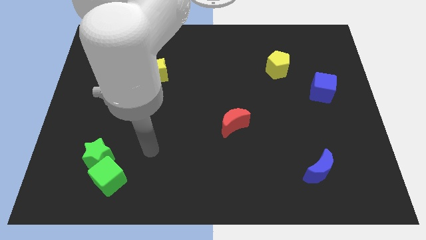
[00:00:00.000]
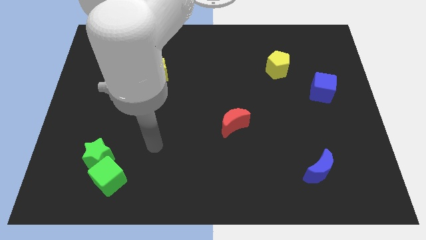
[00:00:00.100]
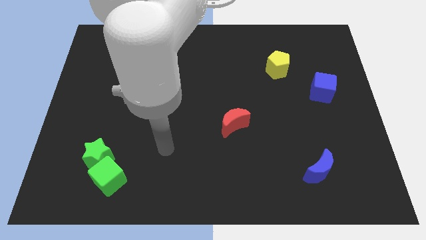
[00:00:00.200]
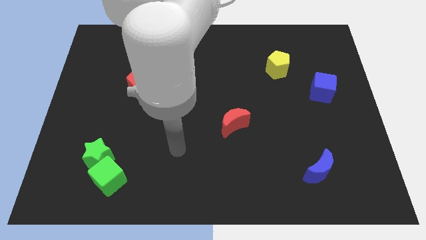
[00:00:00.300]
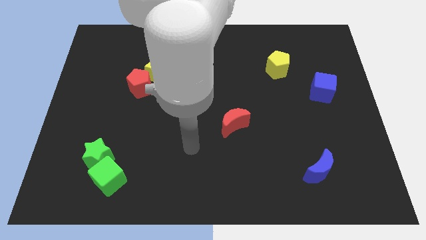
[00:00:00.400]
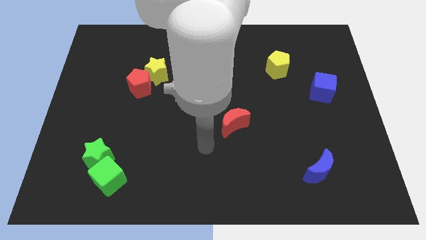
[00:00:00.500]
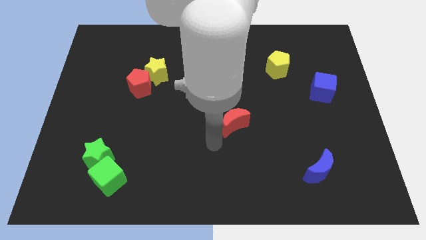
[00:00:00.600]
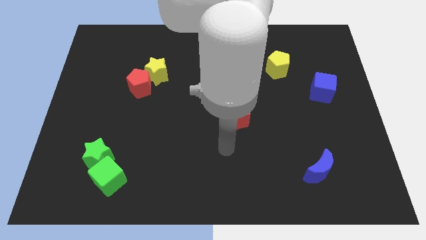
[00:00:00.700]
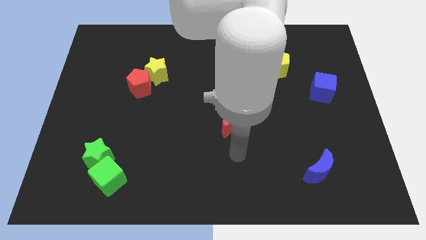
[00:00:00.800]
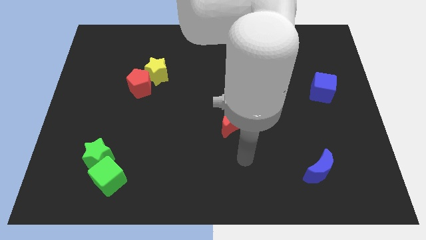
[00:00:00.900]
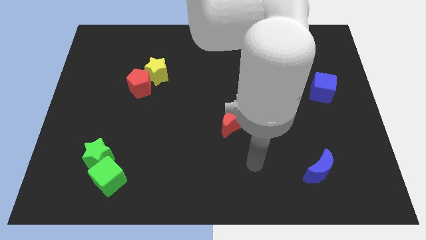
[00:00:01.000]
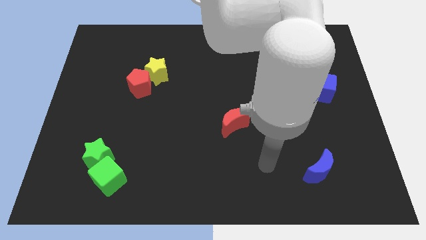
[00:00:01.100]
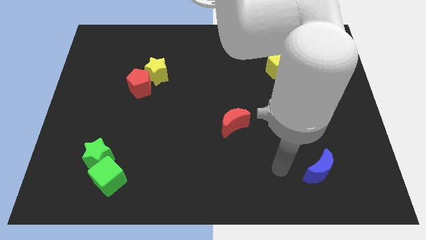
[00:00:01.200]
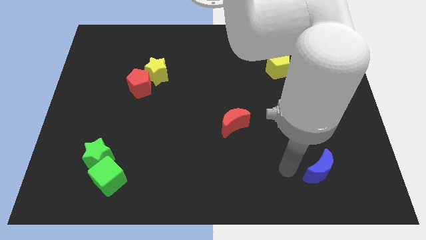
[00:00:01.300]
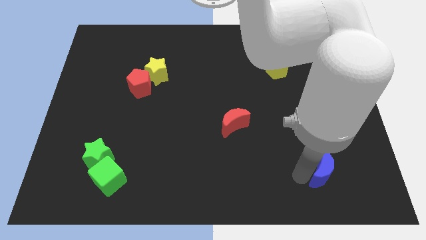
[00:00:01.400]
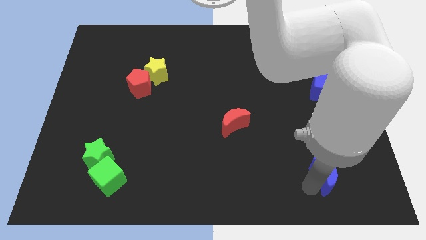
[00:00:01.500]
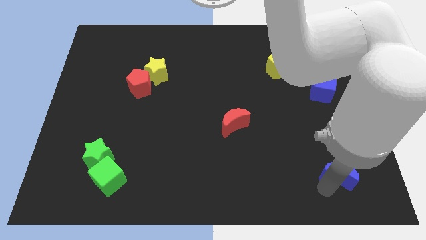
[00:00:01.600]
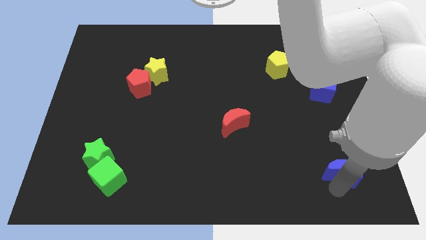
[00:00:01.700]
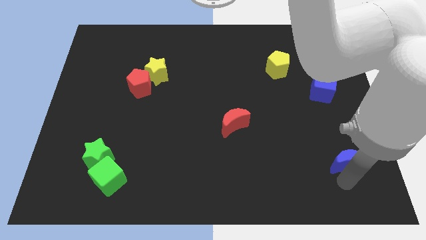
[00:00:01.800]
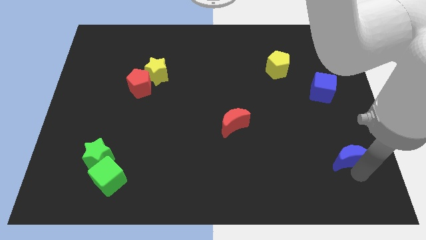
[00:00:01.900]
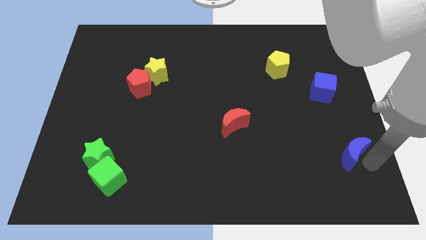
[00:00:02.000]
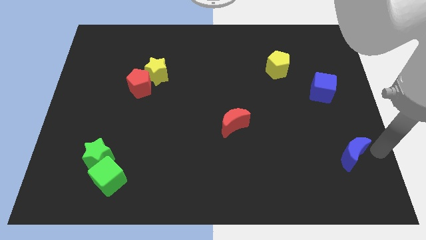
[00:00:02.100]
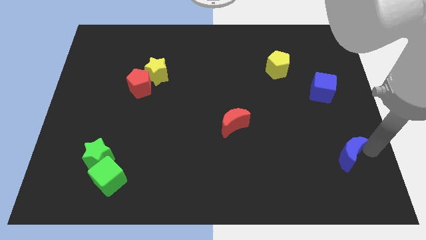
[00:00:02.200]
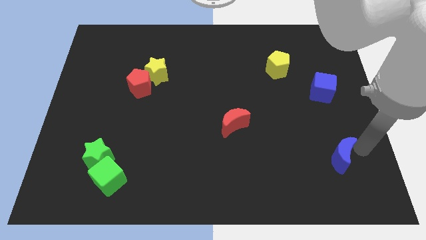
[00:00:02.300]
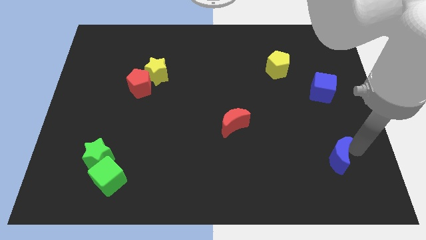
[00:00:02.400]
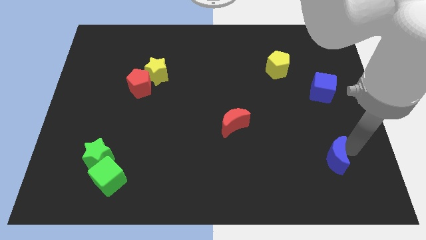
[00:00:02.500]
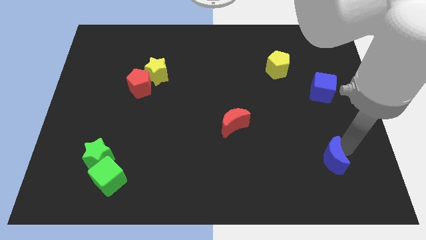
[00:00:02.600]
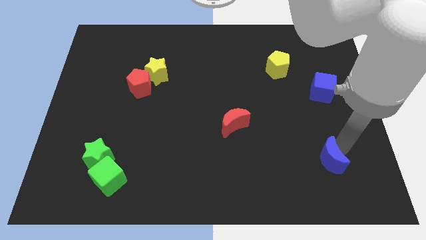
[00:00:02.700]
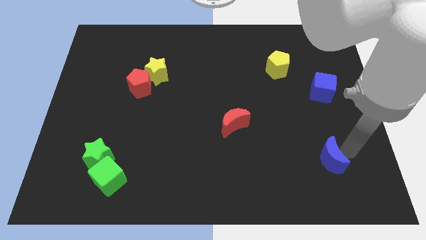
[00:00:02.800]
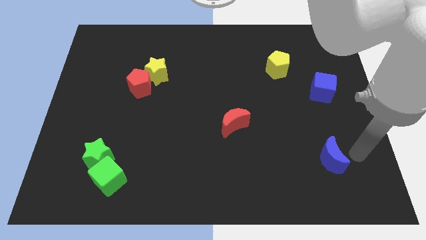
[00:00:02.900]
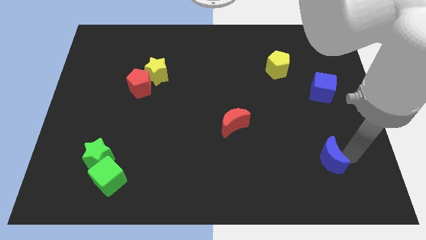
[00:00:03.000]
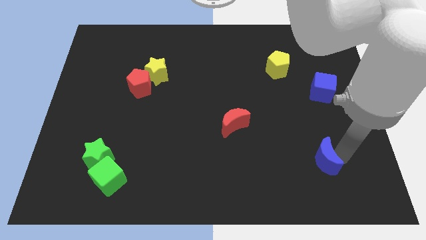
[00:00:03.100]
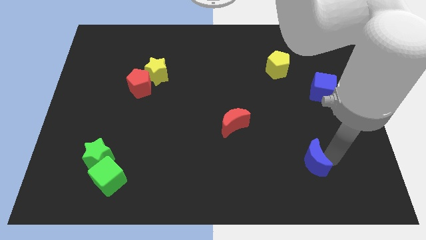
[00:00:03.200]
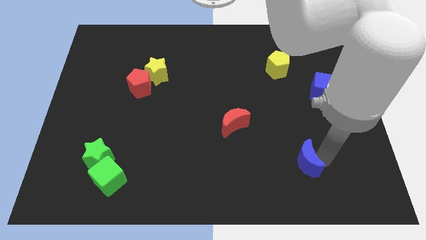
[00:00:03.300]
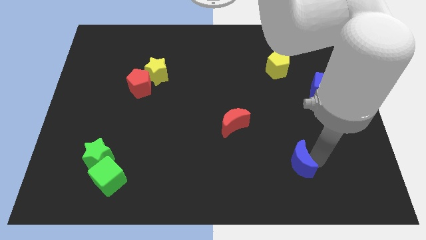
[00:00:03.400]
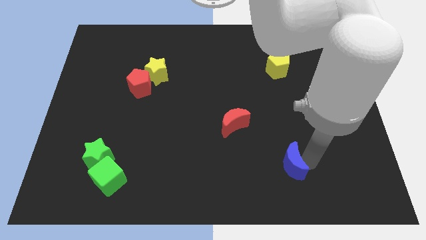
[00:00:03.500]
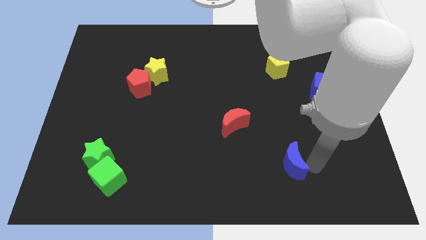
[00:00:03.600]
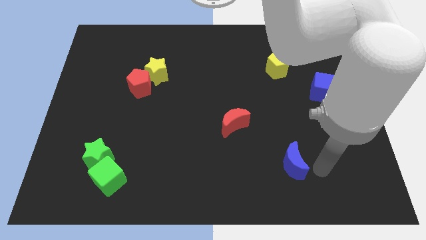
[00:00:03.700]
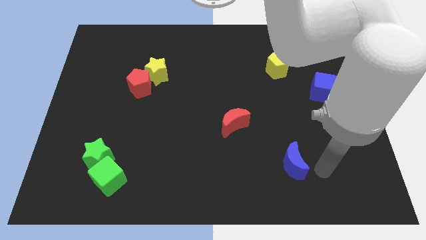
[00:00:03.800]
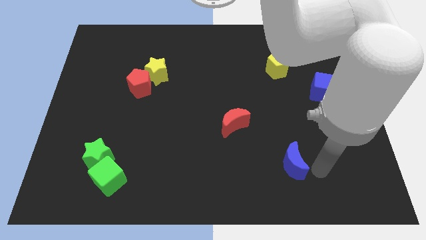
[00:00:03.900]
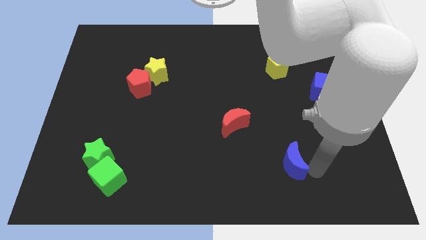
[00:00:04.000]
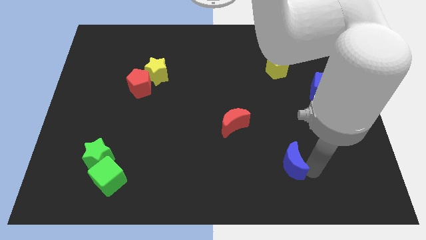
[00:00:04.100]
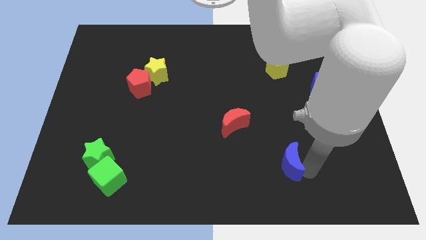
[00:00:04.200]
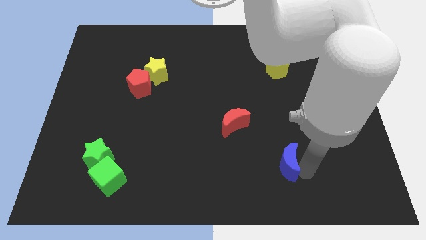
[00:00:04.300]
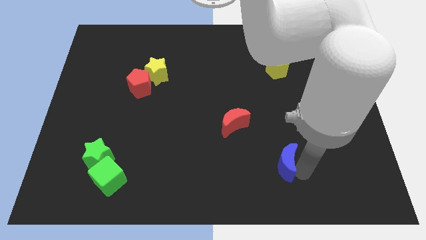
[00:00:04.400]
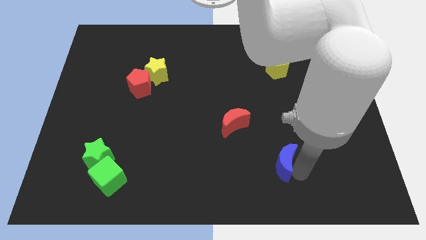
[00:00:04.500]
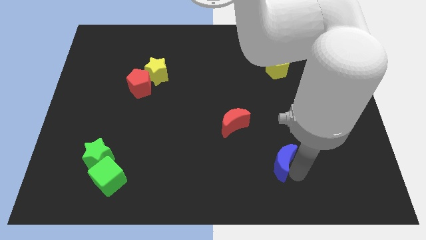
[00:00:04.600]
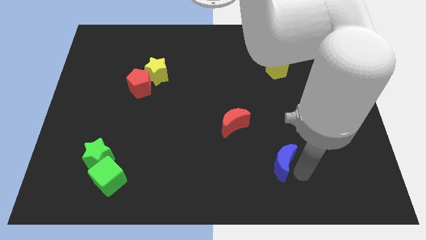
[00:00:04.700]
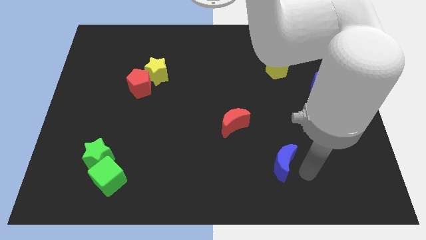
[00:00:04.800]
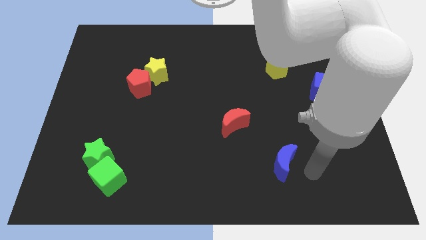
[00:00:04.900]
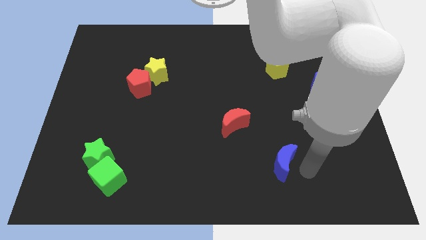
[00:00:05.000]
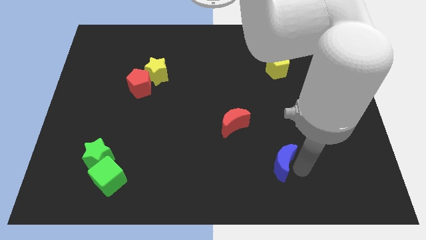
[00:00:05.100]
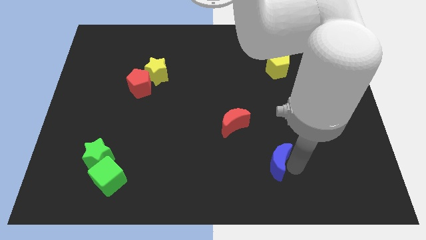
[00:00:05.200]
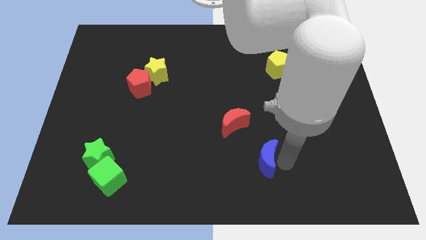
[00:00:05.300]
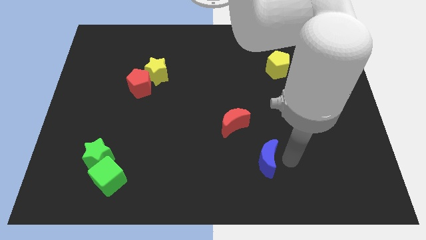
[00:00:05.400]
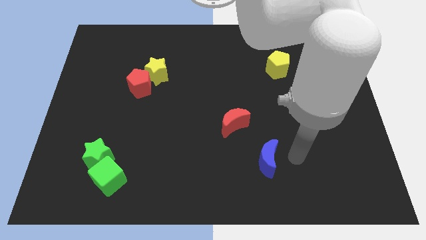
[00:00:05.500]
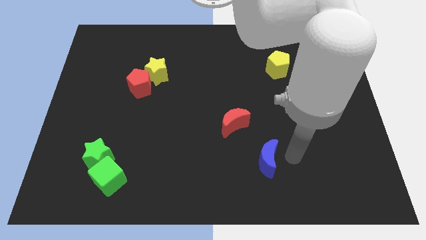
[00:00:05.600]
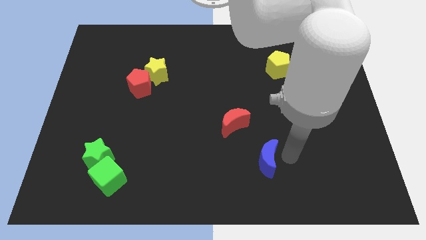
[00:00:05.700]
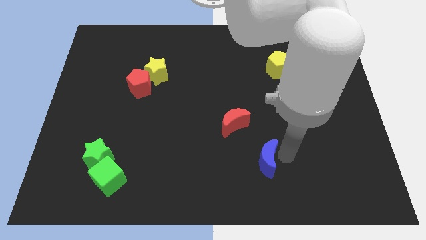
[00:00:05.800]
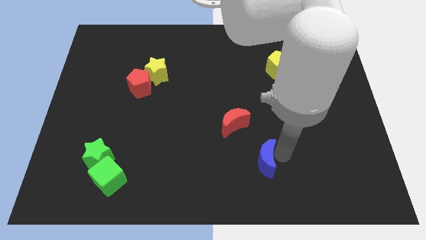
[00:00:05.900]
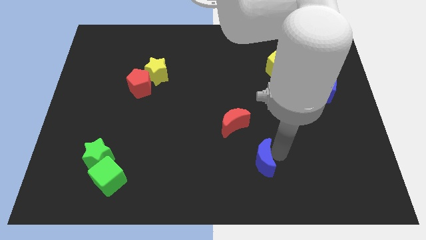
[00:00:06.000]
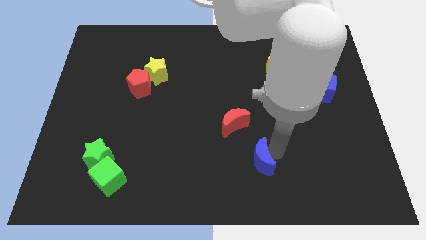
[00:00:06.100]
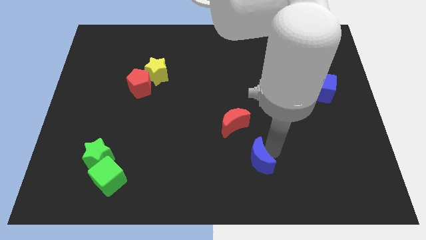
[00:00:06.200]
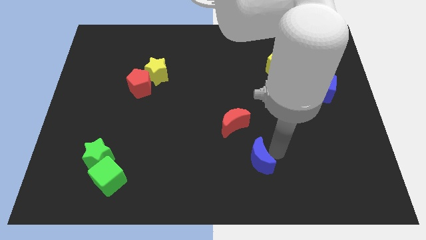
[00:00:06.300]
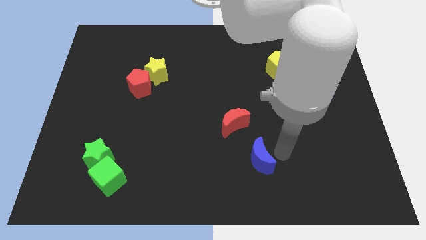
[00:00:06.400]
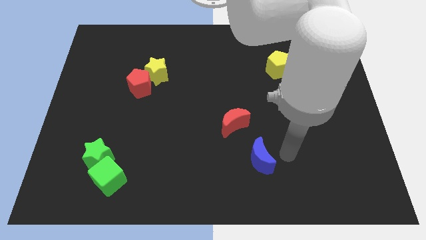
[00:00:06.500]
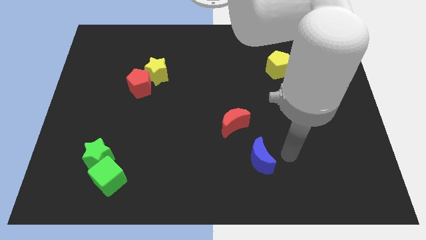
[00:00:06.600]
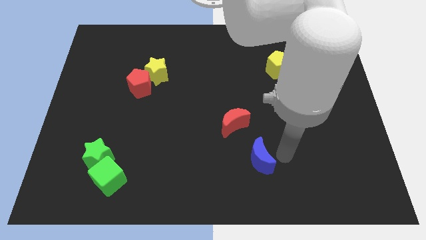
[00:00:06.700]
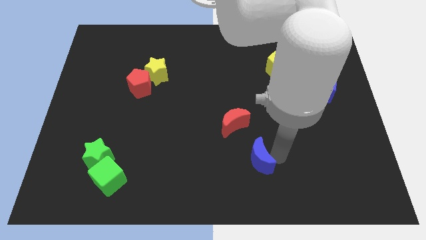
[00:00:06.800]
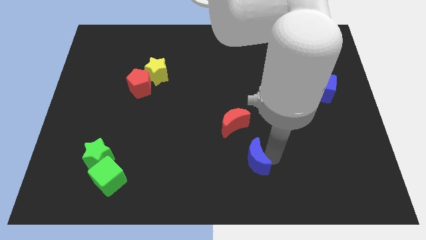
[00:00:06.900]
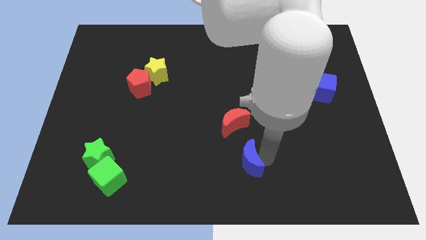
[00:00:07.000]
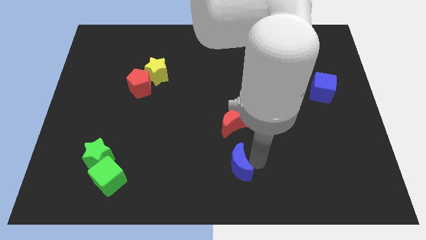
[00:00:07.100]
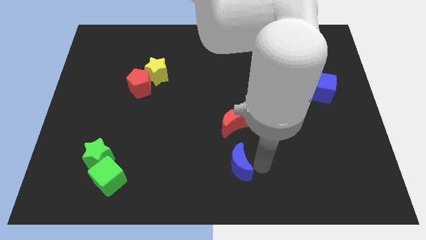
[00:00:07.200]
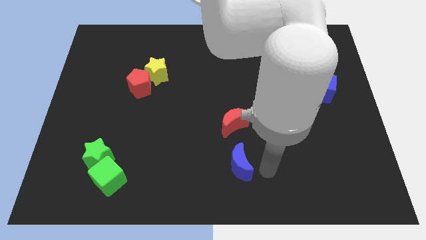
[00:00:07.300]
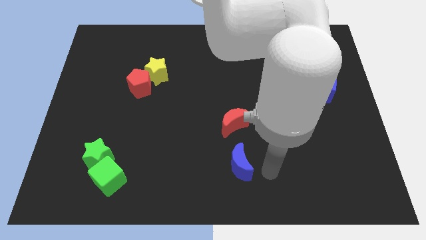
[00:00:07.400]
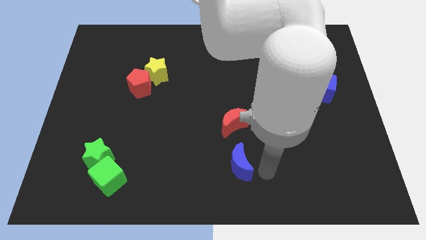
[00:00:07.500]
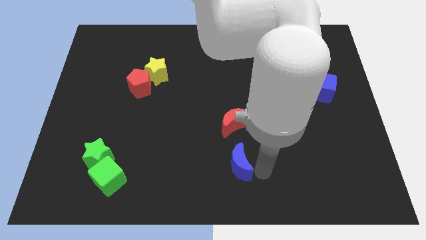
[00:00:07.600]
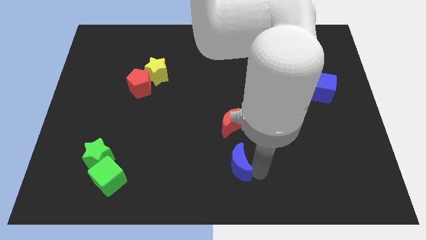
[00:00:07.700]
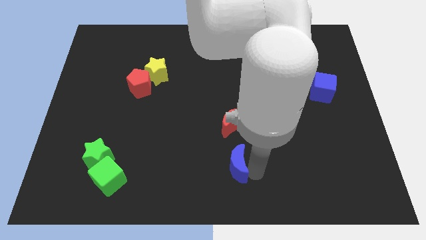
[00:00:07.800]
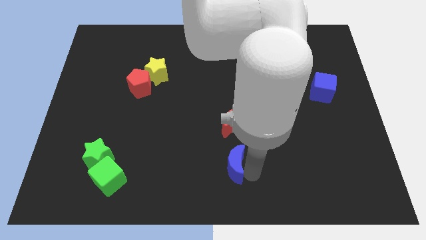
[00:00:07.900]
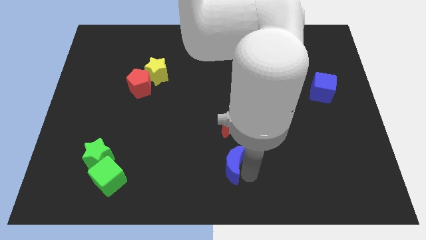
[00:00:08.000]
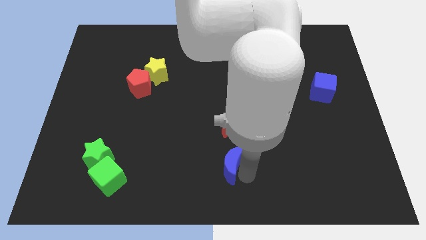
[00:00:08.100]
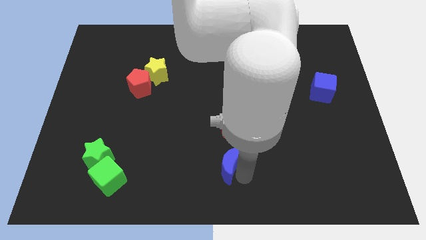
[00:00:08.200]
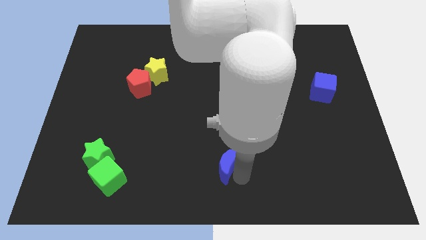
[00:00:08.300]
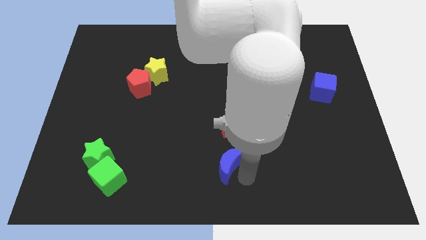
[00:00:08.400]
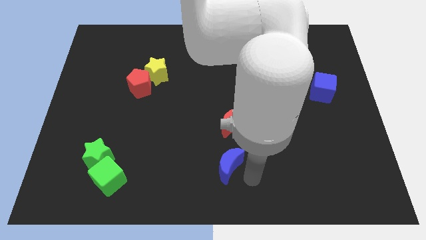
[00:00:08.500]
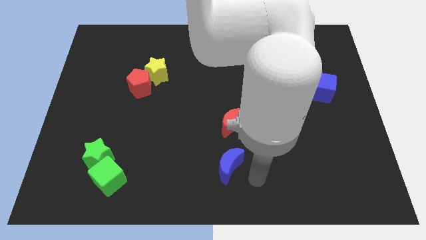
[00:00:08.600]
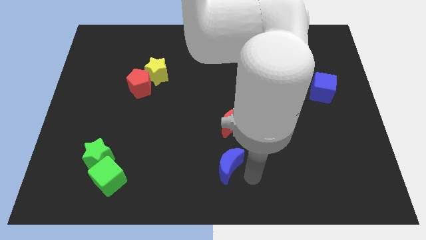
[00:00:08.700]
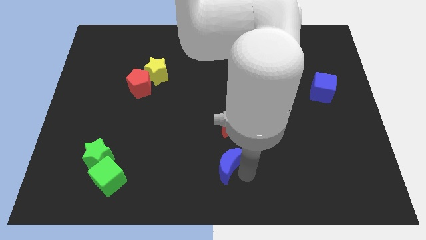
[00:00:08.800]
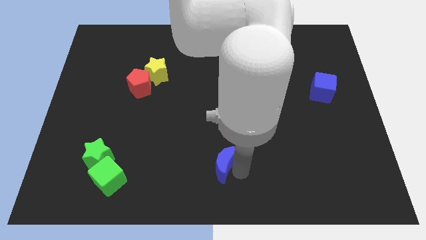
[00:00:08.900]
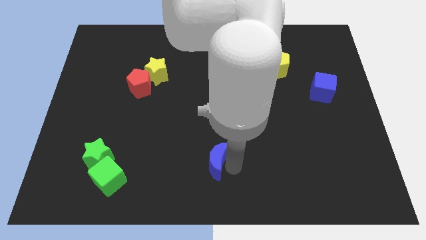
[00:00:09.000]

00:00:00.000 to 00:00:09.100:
slide the blue moon left
